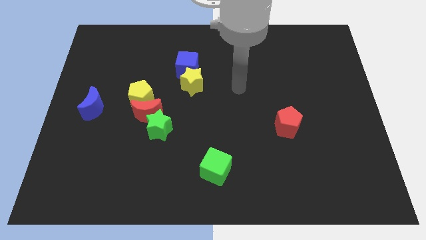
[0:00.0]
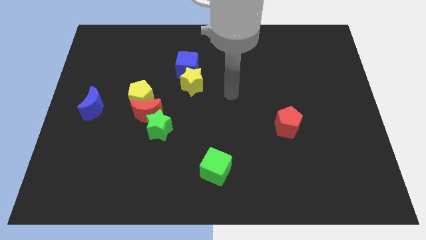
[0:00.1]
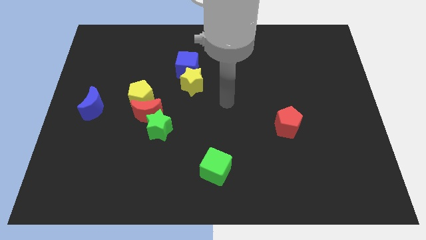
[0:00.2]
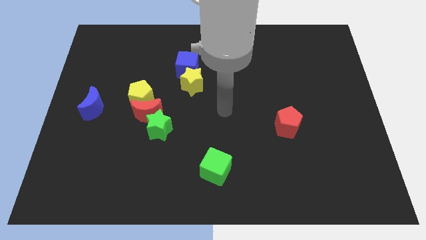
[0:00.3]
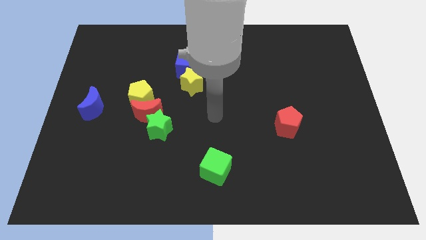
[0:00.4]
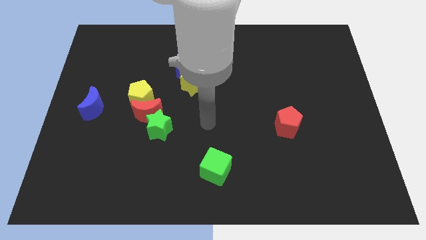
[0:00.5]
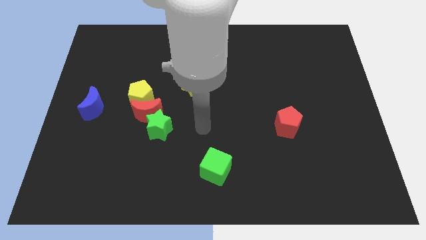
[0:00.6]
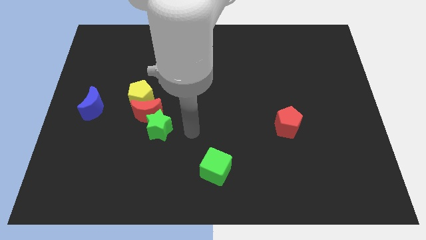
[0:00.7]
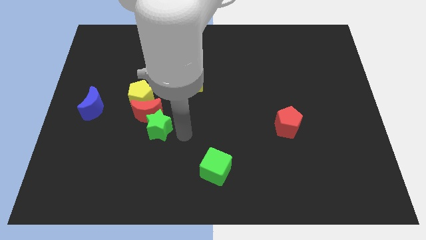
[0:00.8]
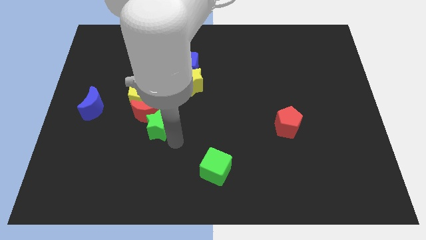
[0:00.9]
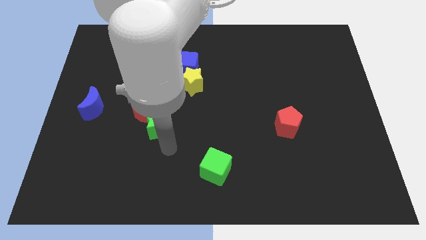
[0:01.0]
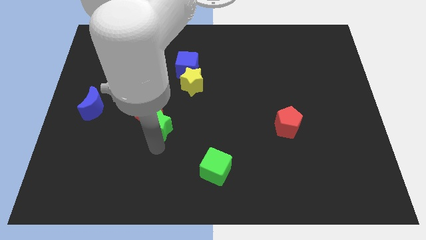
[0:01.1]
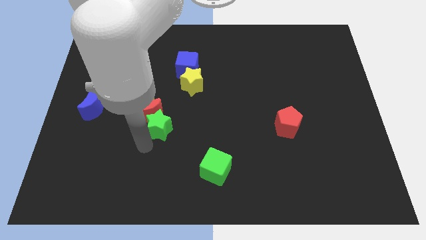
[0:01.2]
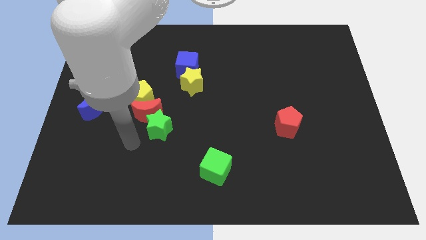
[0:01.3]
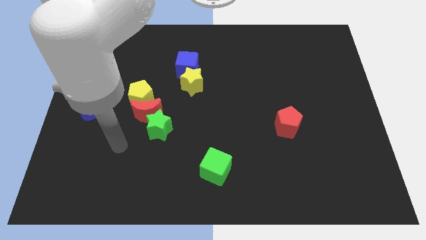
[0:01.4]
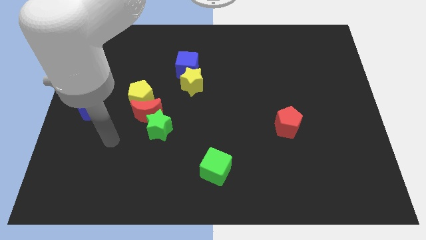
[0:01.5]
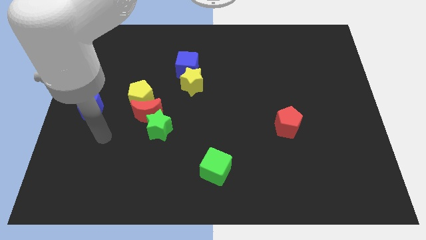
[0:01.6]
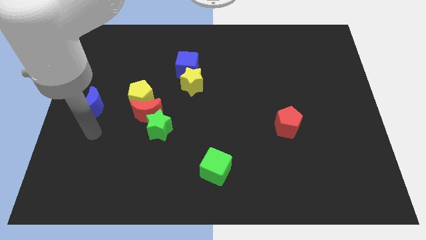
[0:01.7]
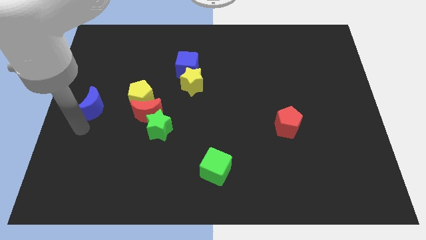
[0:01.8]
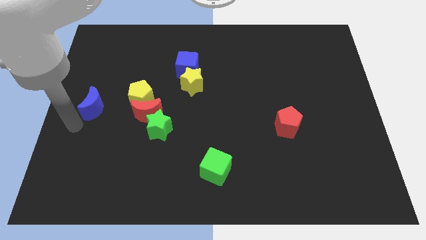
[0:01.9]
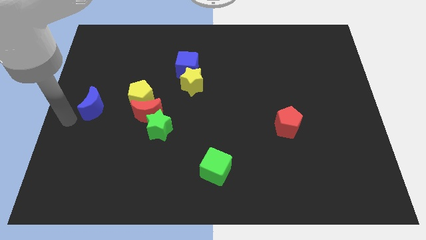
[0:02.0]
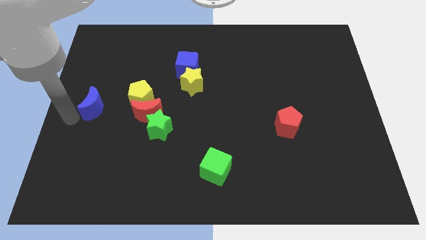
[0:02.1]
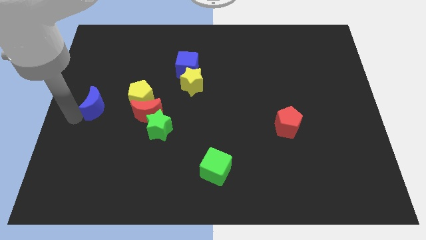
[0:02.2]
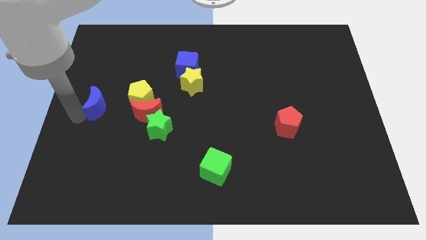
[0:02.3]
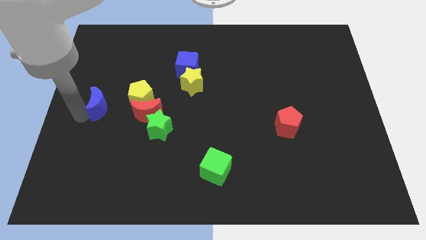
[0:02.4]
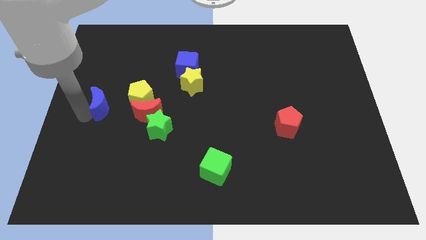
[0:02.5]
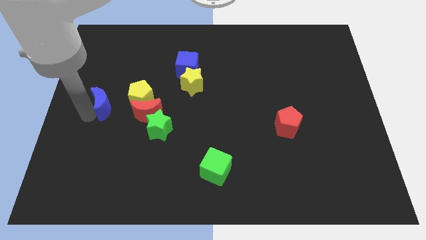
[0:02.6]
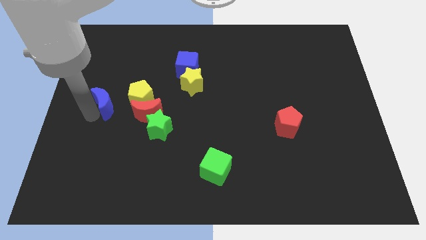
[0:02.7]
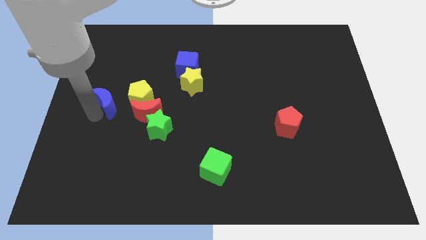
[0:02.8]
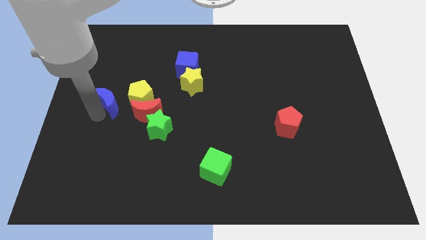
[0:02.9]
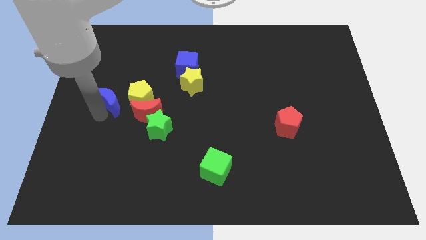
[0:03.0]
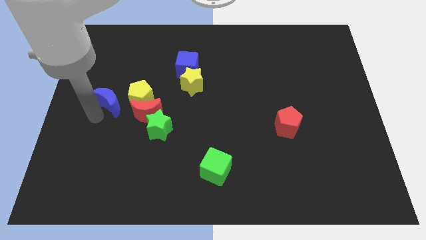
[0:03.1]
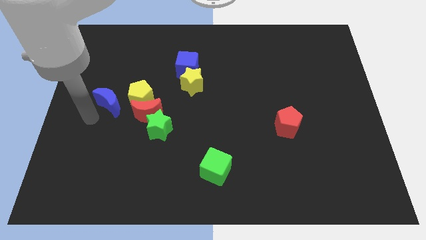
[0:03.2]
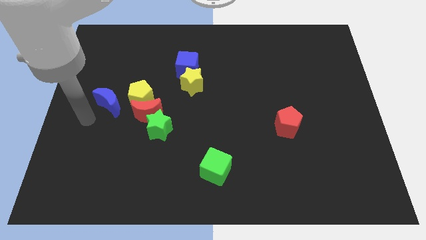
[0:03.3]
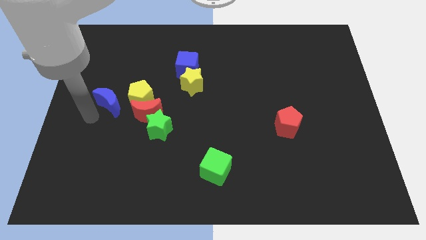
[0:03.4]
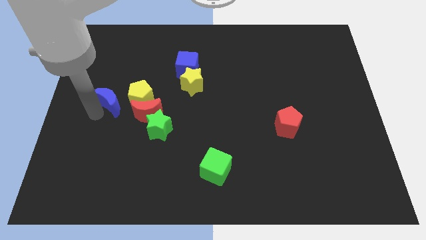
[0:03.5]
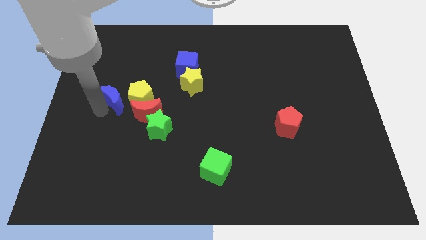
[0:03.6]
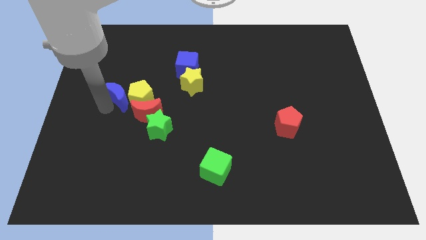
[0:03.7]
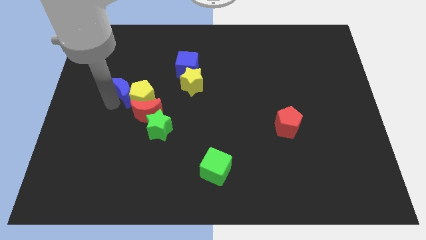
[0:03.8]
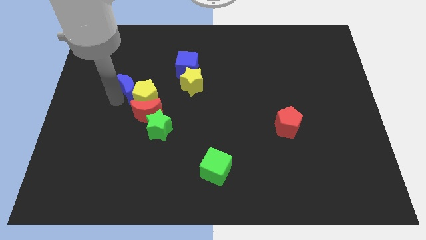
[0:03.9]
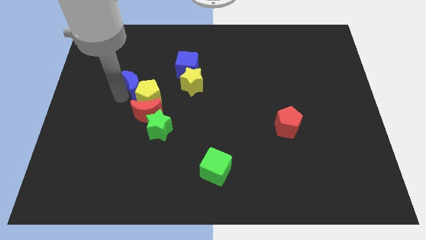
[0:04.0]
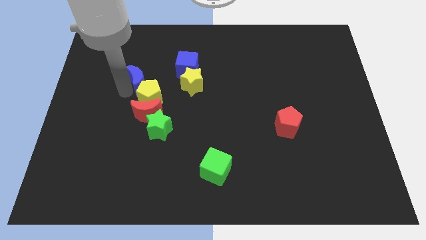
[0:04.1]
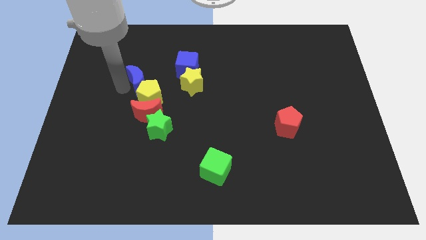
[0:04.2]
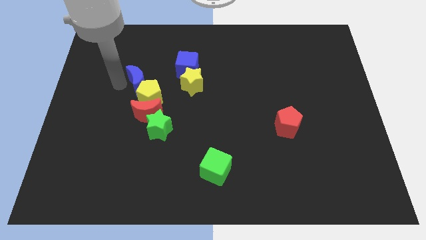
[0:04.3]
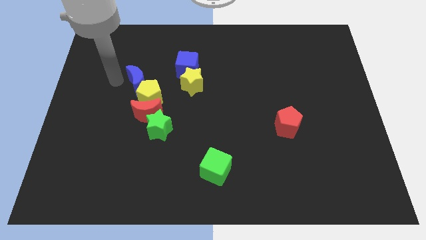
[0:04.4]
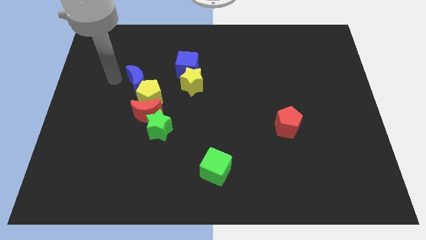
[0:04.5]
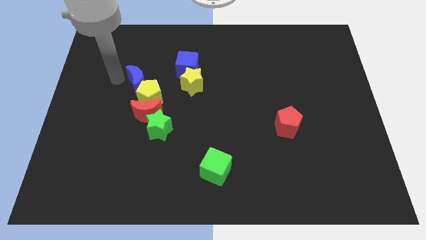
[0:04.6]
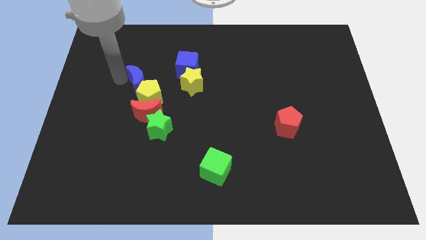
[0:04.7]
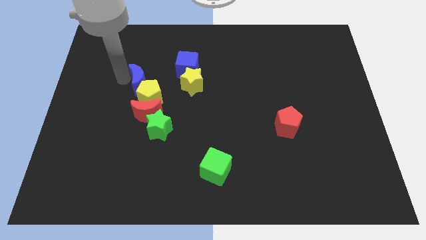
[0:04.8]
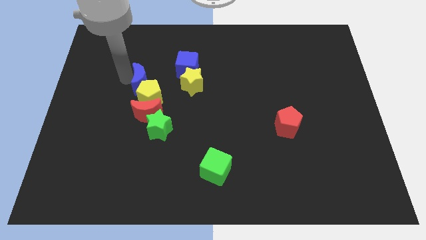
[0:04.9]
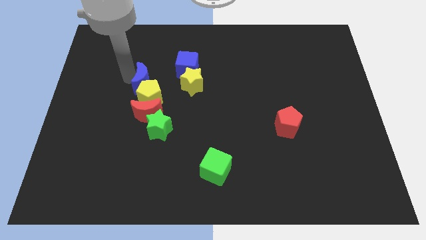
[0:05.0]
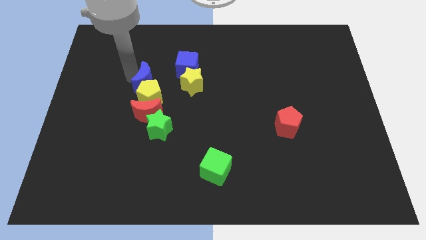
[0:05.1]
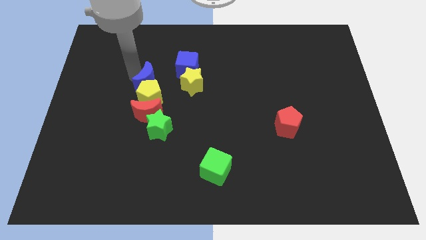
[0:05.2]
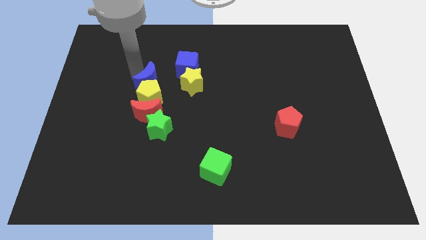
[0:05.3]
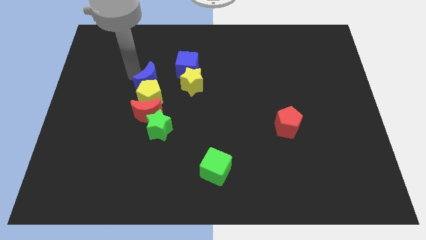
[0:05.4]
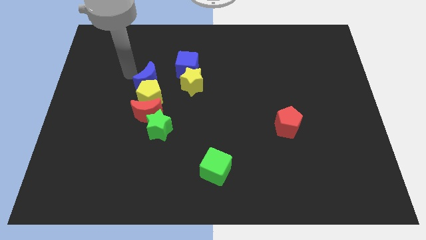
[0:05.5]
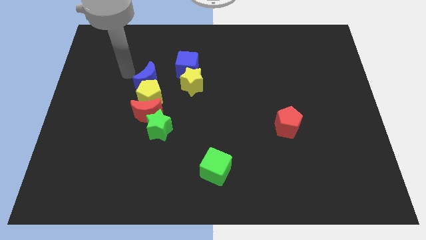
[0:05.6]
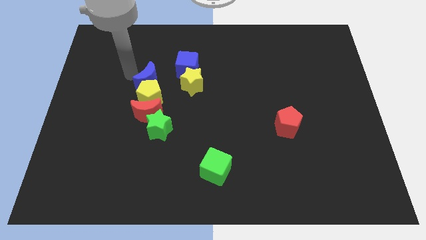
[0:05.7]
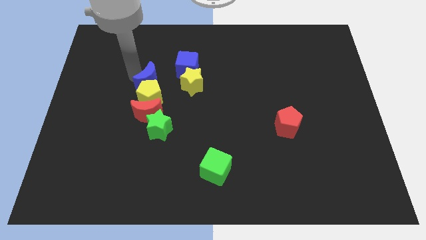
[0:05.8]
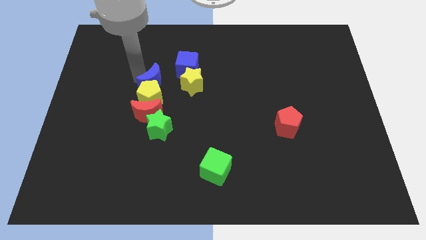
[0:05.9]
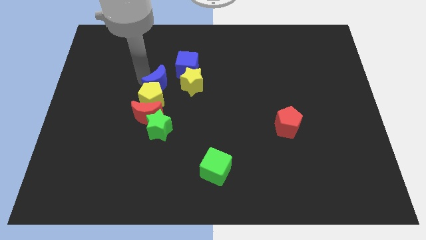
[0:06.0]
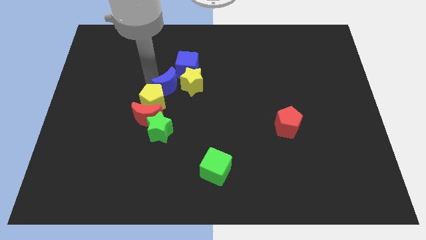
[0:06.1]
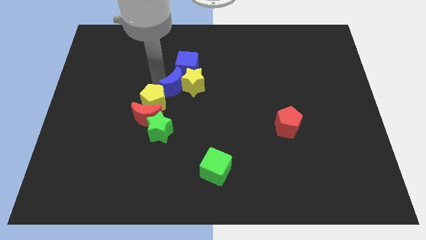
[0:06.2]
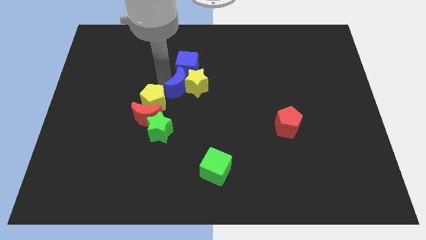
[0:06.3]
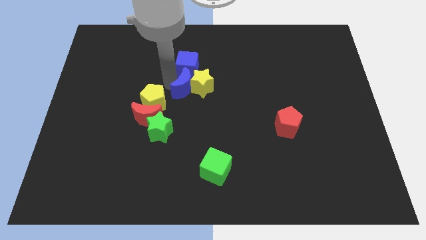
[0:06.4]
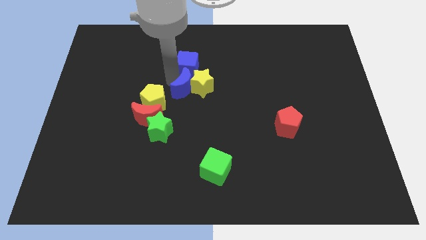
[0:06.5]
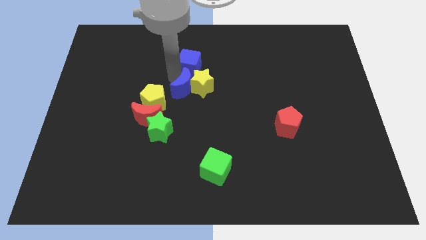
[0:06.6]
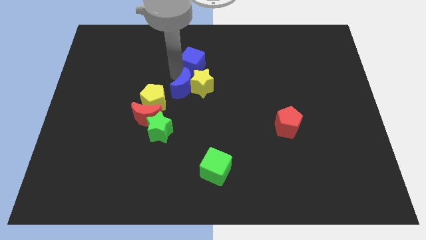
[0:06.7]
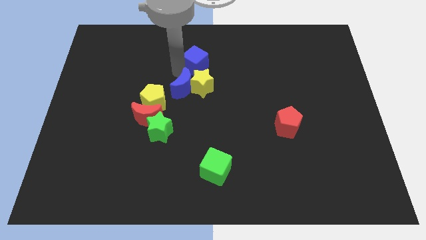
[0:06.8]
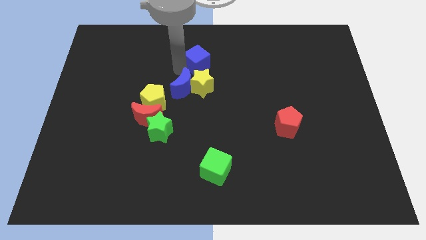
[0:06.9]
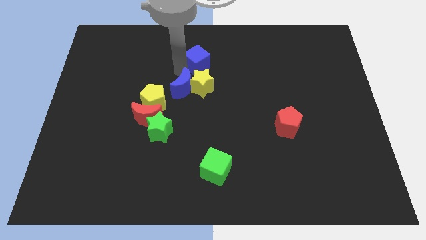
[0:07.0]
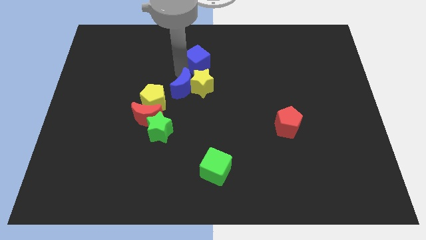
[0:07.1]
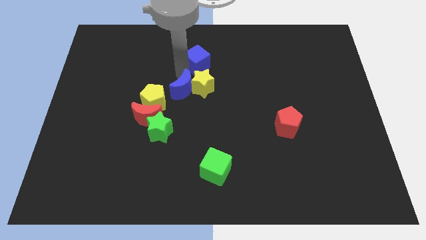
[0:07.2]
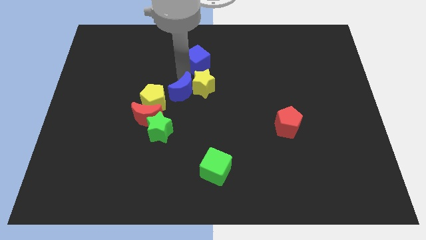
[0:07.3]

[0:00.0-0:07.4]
move the blue moon right

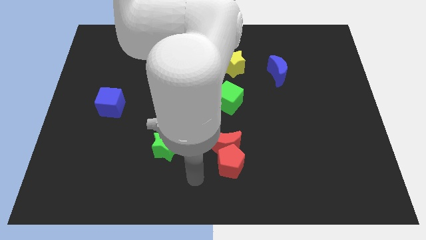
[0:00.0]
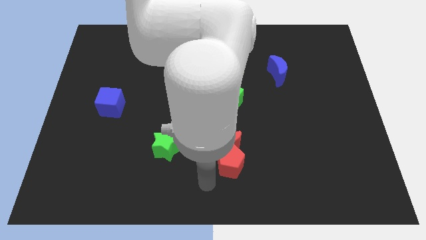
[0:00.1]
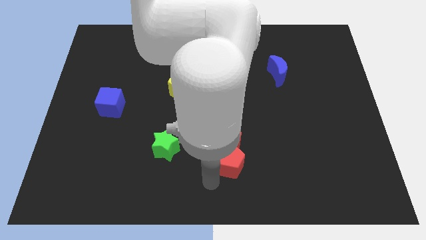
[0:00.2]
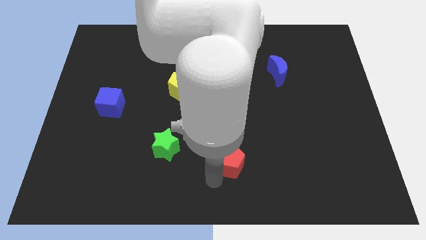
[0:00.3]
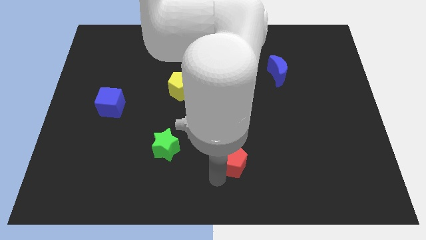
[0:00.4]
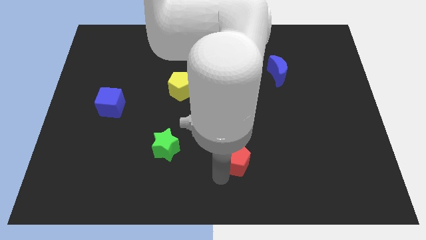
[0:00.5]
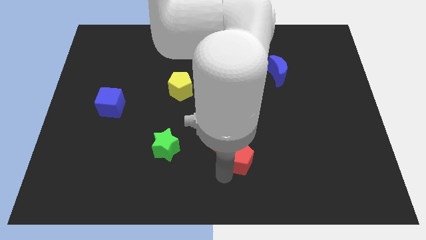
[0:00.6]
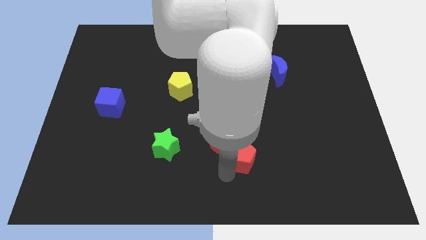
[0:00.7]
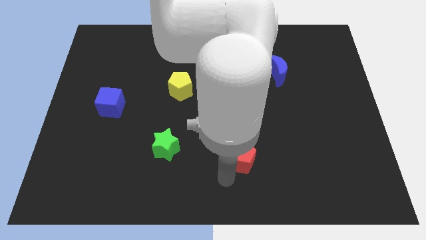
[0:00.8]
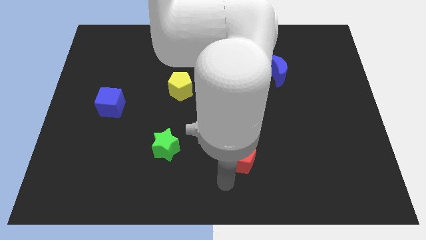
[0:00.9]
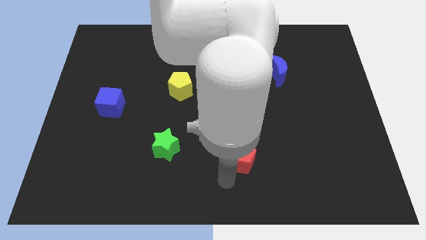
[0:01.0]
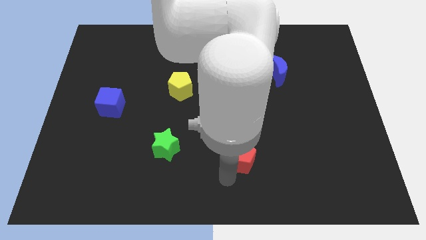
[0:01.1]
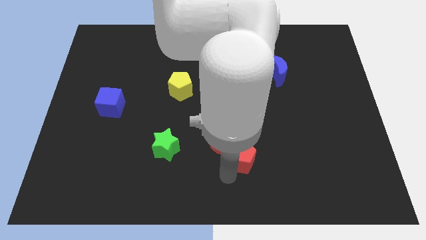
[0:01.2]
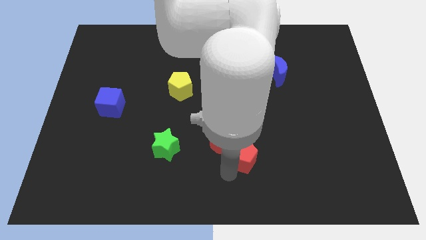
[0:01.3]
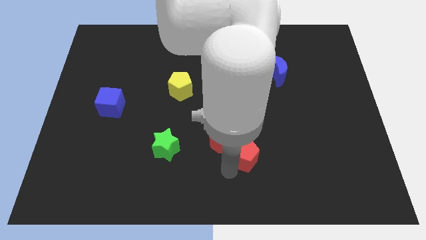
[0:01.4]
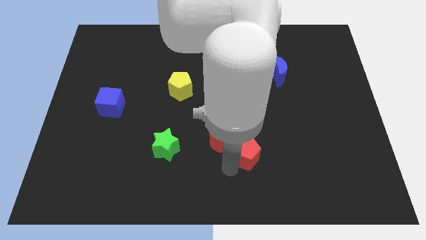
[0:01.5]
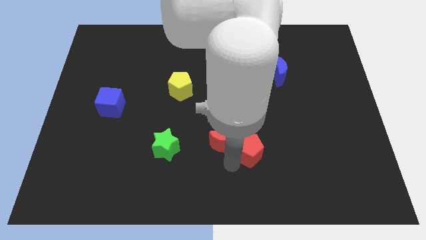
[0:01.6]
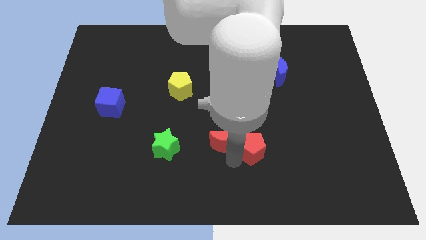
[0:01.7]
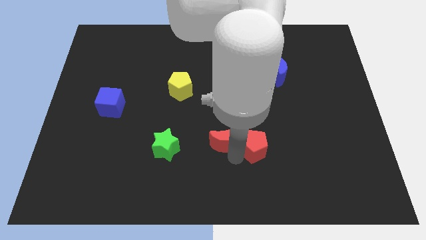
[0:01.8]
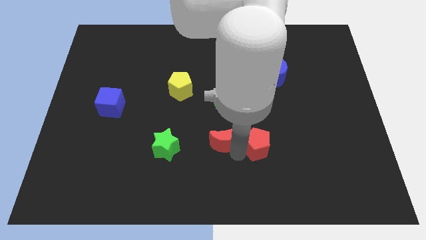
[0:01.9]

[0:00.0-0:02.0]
push the red pentagon upwards and then right slightly
